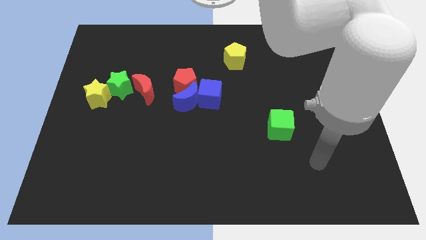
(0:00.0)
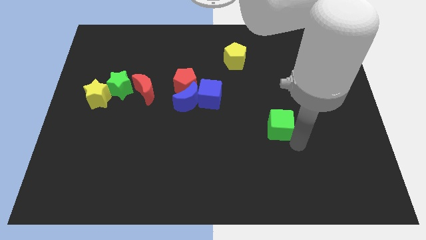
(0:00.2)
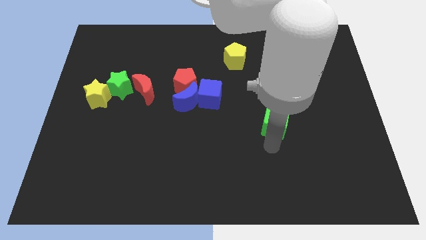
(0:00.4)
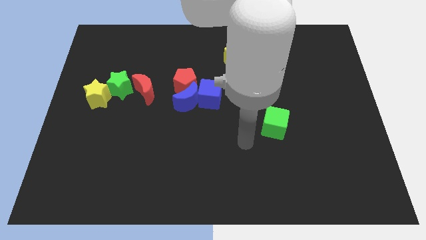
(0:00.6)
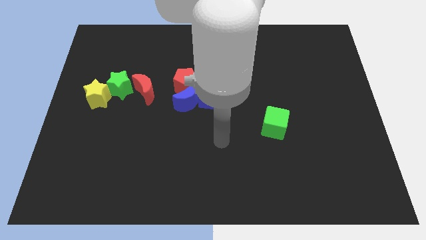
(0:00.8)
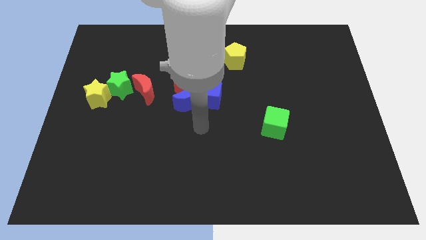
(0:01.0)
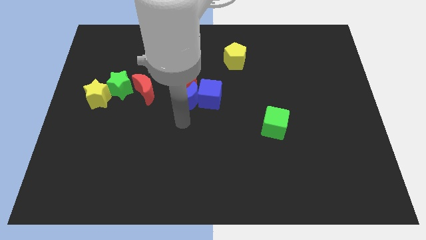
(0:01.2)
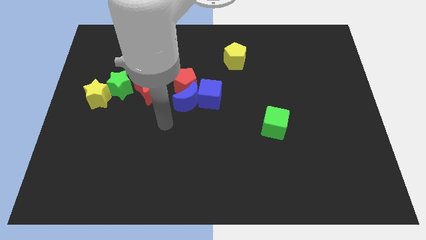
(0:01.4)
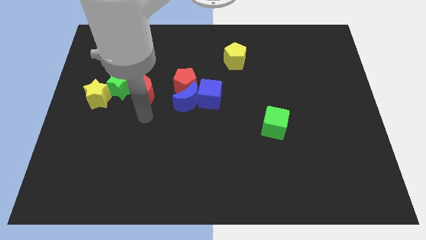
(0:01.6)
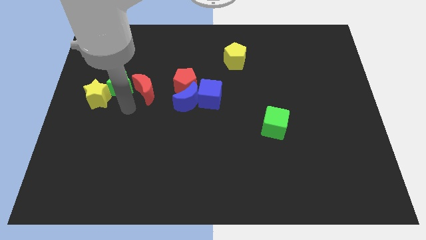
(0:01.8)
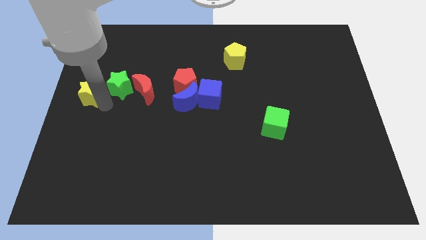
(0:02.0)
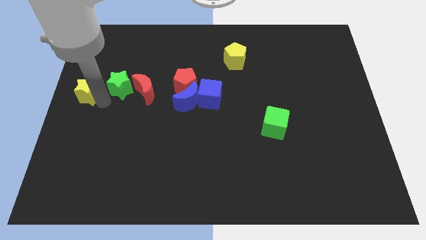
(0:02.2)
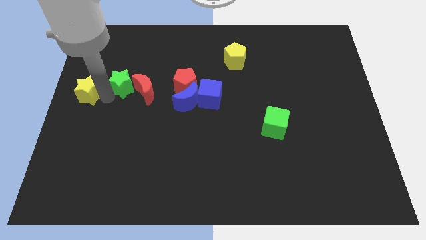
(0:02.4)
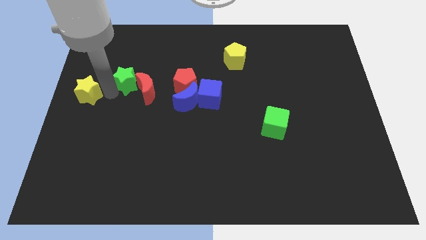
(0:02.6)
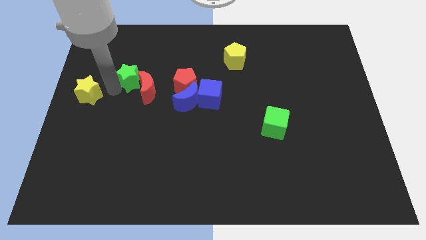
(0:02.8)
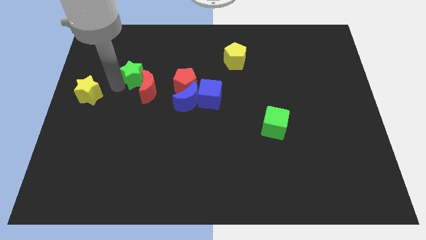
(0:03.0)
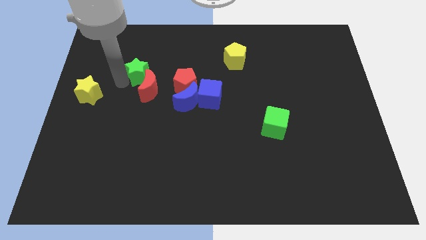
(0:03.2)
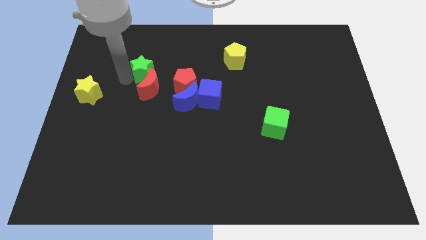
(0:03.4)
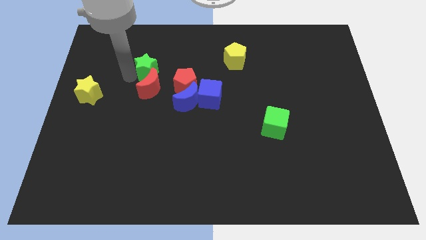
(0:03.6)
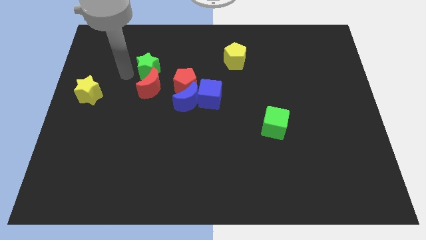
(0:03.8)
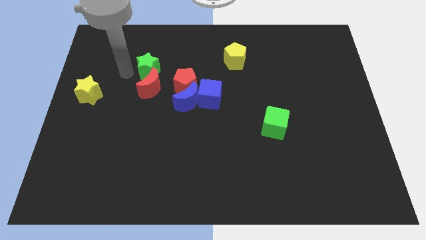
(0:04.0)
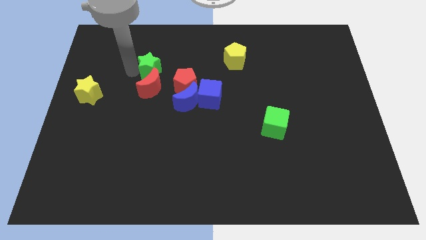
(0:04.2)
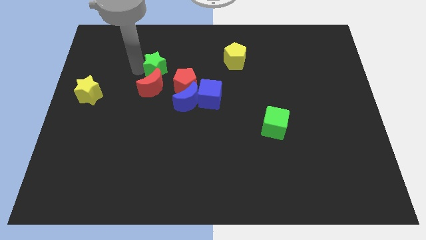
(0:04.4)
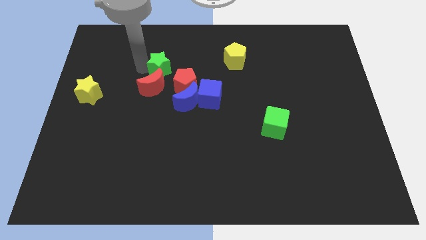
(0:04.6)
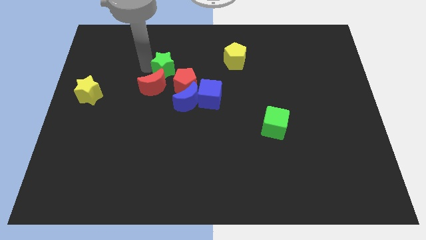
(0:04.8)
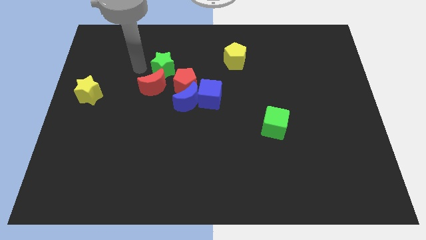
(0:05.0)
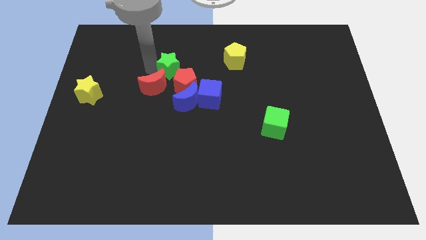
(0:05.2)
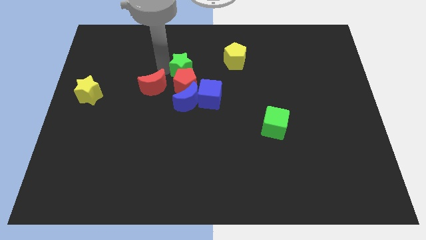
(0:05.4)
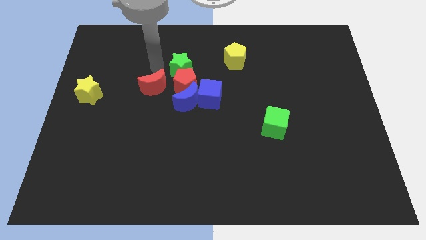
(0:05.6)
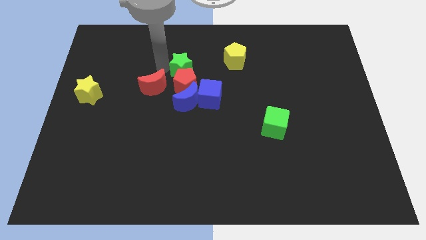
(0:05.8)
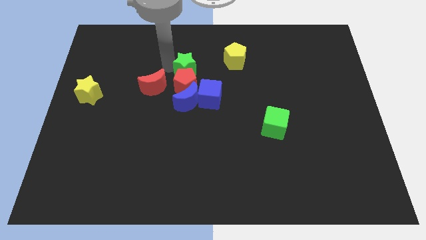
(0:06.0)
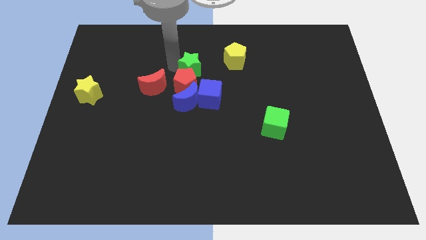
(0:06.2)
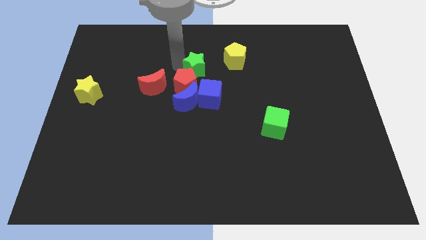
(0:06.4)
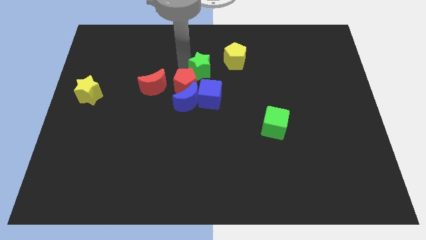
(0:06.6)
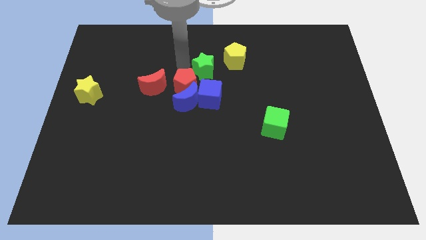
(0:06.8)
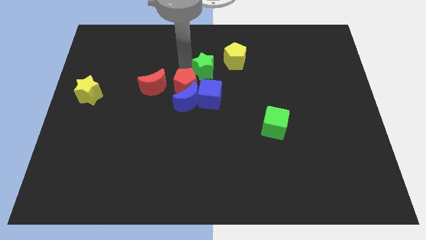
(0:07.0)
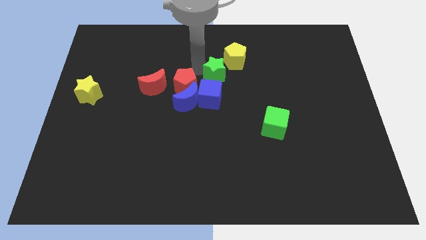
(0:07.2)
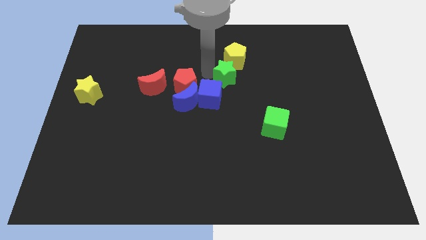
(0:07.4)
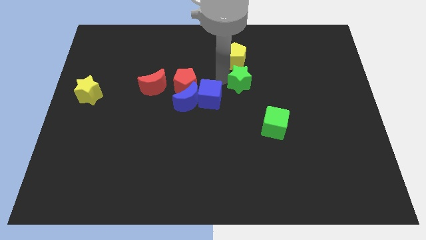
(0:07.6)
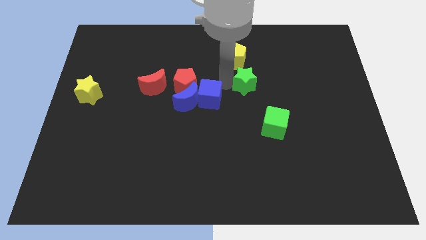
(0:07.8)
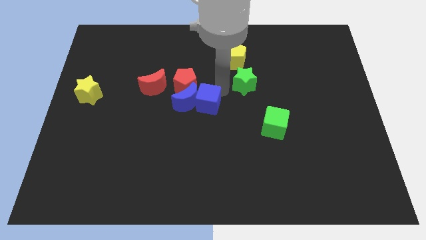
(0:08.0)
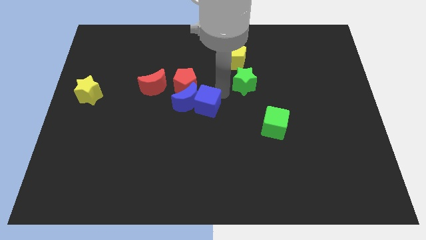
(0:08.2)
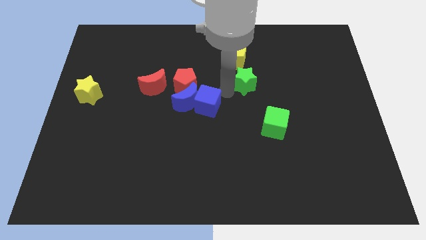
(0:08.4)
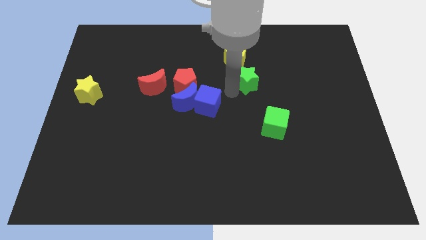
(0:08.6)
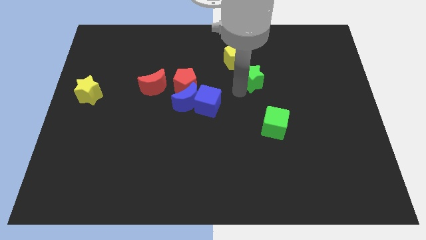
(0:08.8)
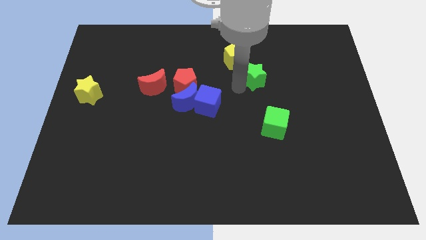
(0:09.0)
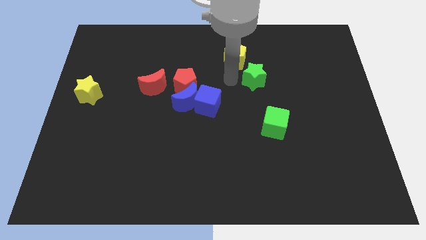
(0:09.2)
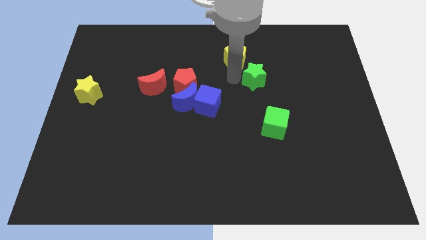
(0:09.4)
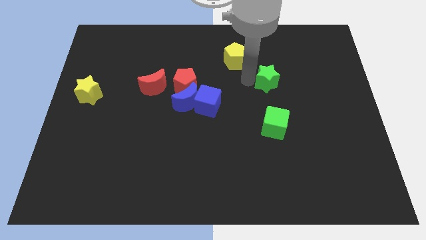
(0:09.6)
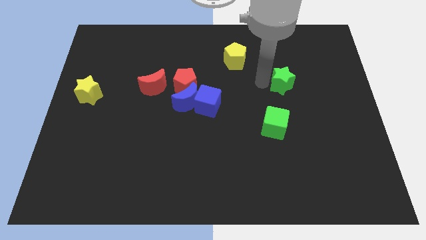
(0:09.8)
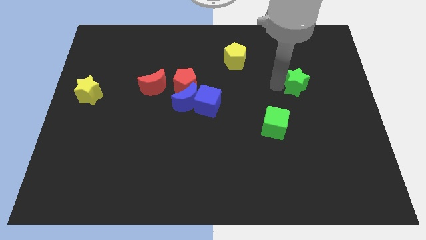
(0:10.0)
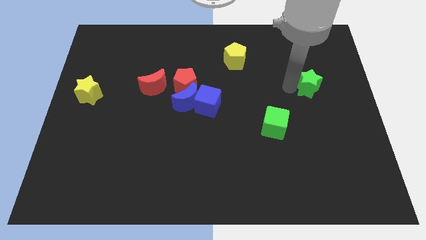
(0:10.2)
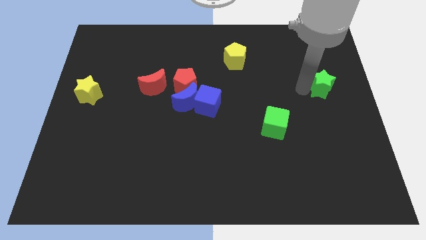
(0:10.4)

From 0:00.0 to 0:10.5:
push the green star to the right side of the board

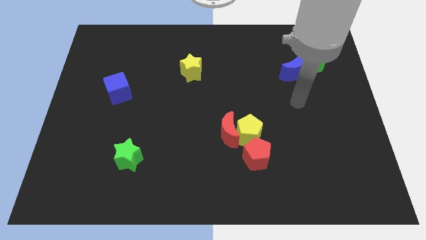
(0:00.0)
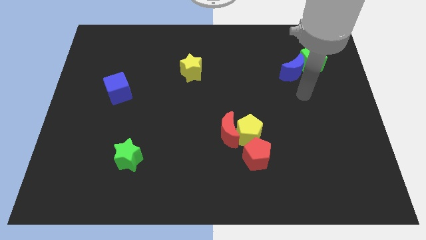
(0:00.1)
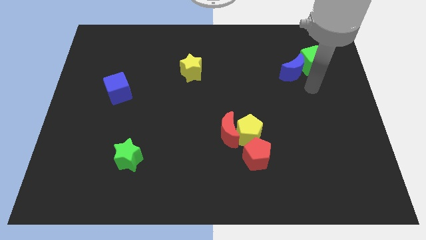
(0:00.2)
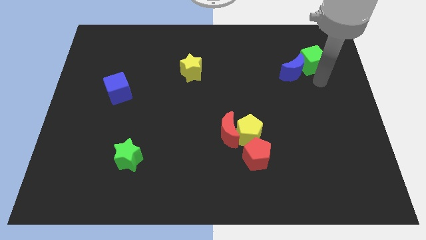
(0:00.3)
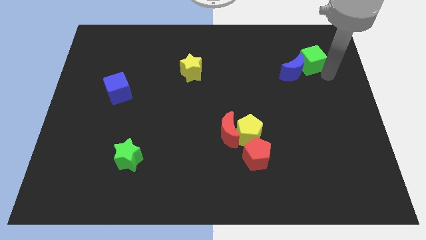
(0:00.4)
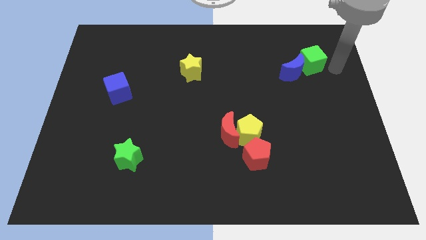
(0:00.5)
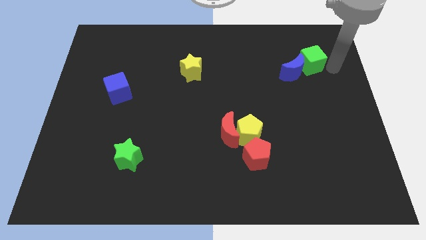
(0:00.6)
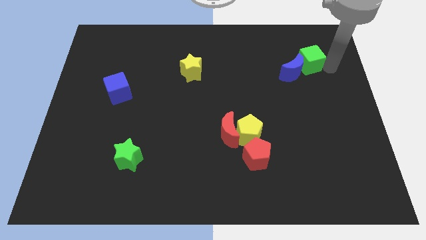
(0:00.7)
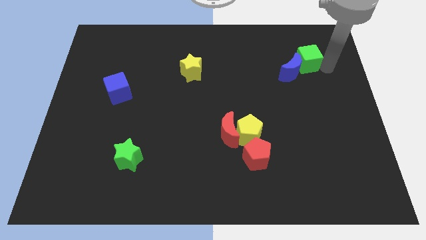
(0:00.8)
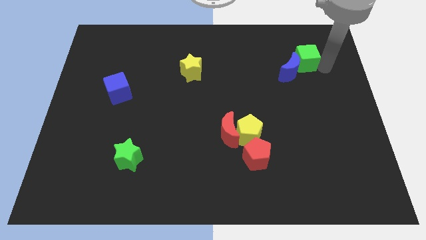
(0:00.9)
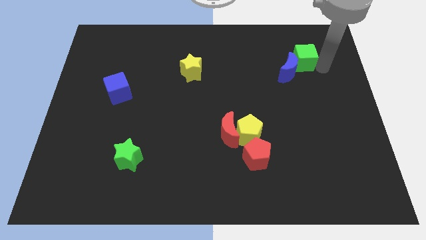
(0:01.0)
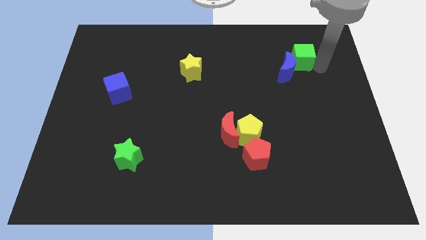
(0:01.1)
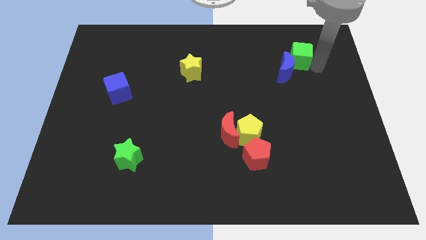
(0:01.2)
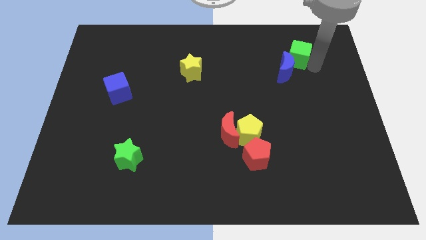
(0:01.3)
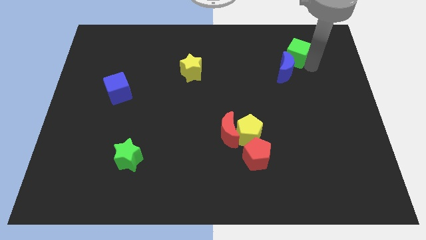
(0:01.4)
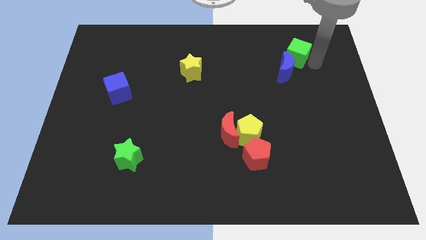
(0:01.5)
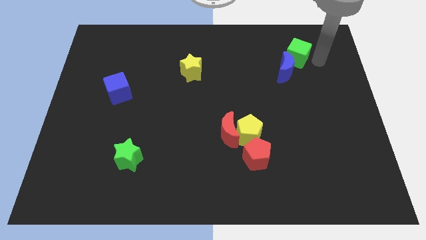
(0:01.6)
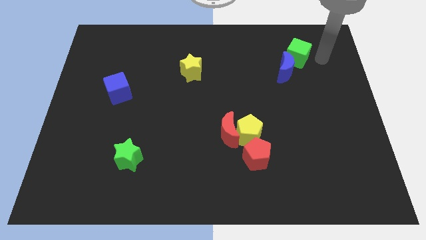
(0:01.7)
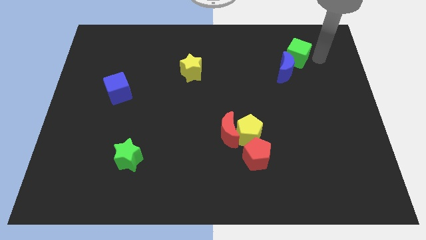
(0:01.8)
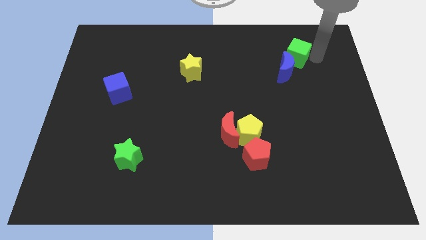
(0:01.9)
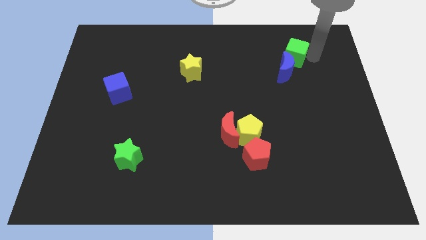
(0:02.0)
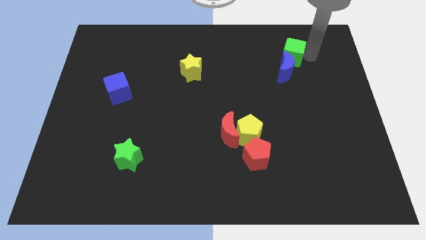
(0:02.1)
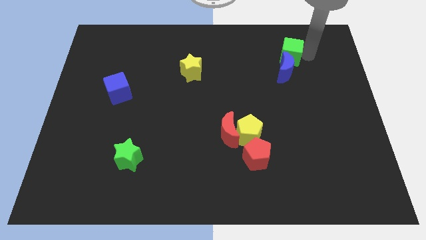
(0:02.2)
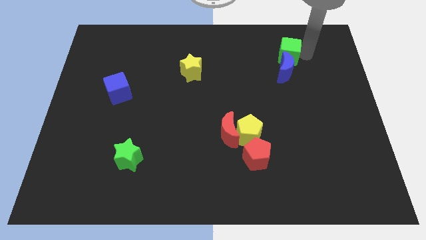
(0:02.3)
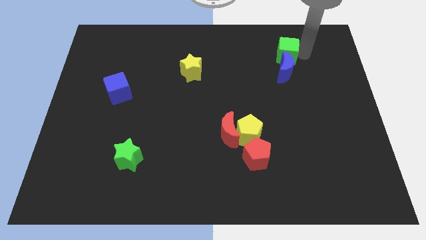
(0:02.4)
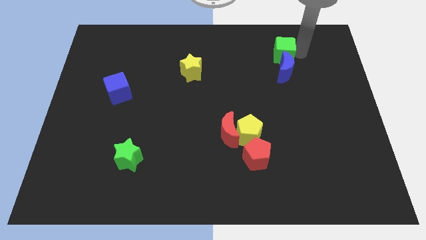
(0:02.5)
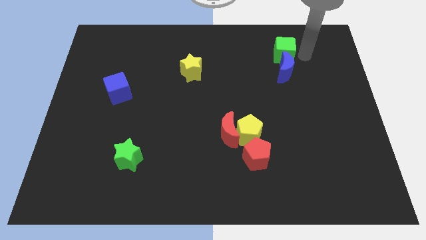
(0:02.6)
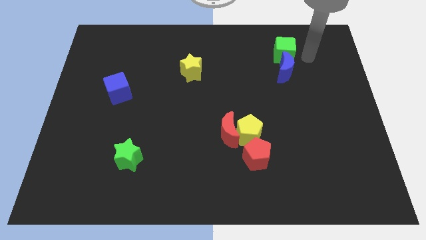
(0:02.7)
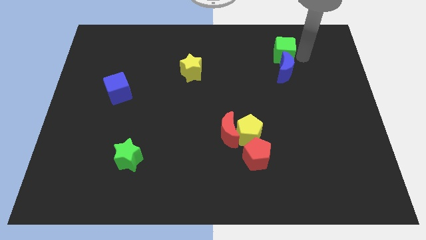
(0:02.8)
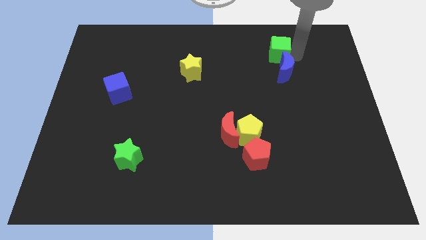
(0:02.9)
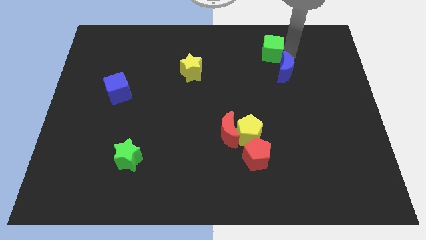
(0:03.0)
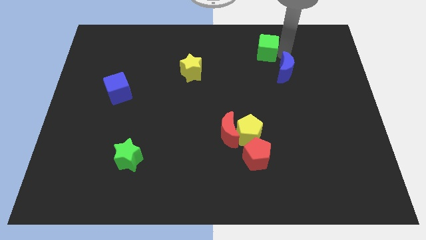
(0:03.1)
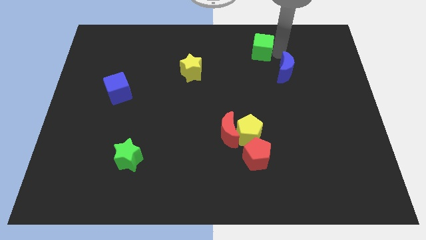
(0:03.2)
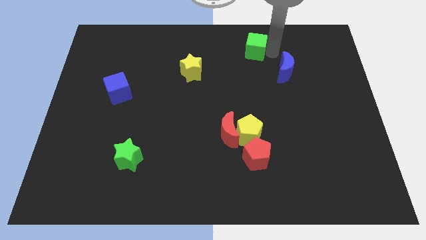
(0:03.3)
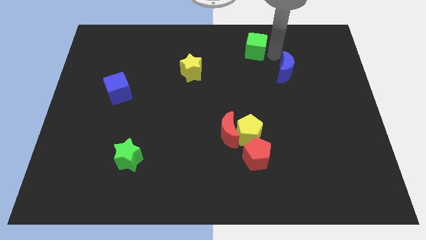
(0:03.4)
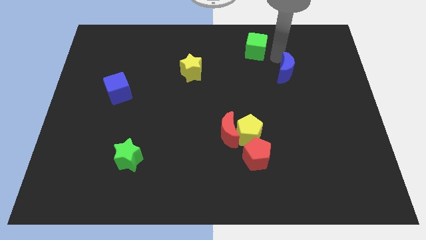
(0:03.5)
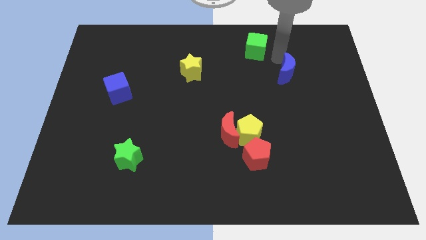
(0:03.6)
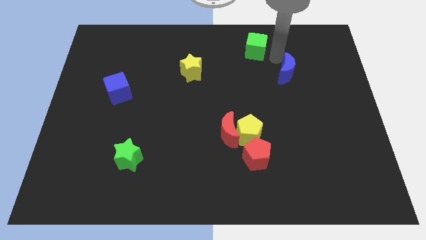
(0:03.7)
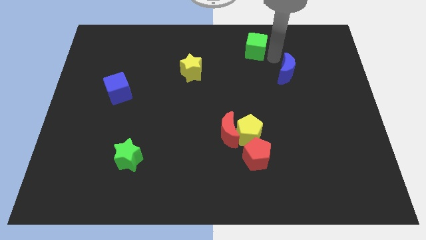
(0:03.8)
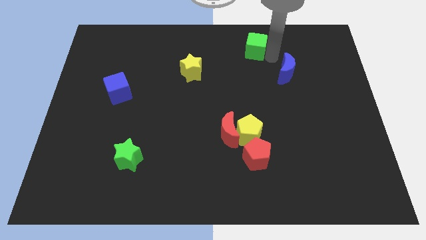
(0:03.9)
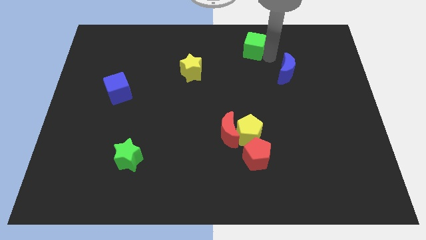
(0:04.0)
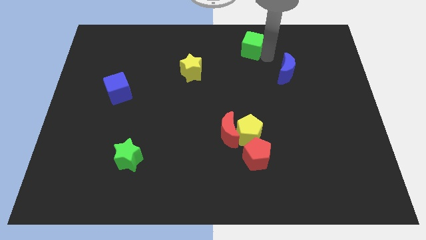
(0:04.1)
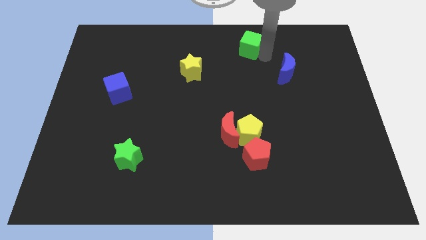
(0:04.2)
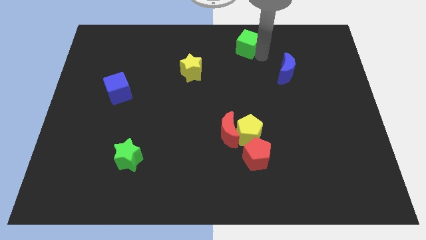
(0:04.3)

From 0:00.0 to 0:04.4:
move the green cube to the towards your base
